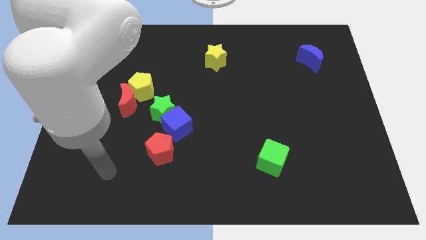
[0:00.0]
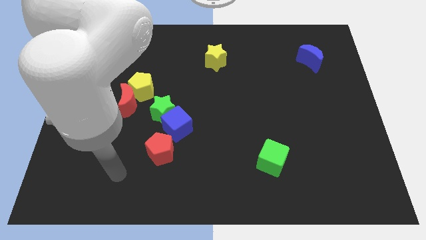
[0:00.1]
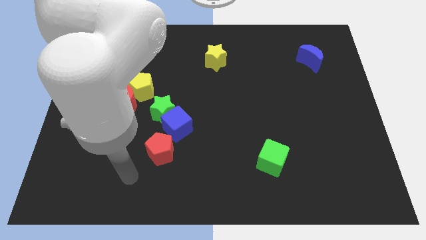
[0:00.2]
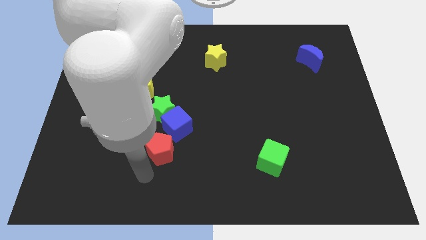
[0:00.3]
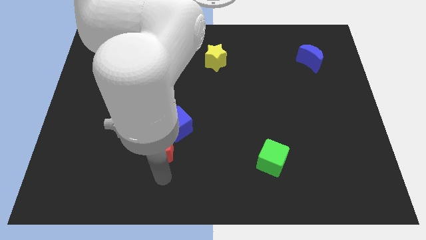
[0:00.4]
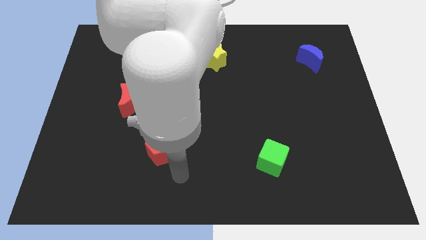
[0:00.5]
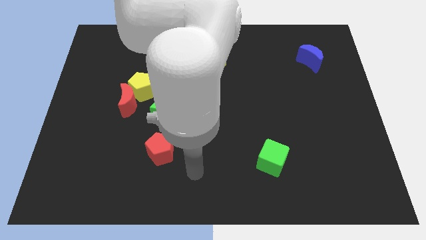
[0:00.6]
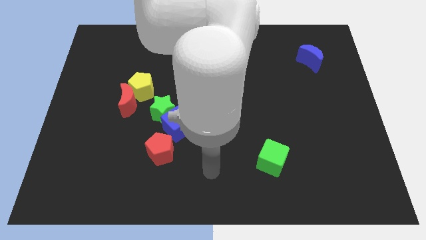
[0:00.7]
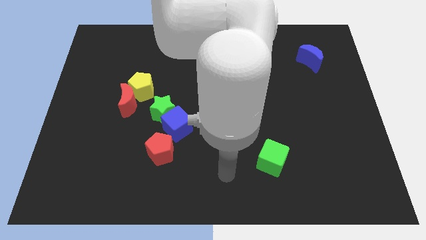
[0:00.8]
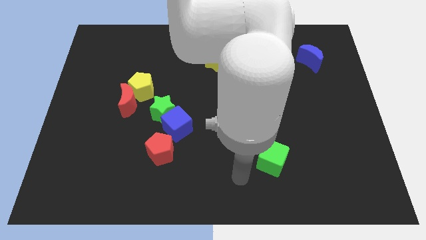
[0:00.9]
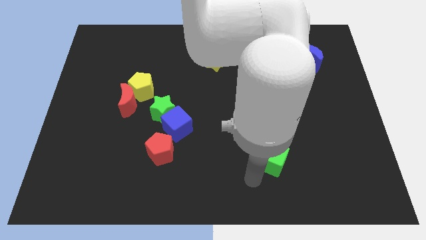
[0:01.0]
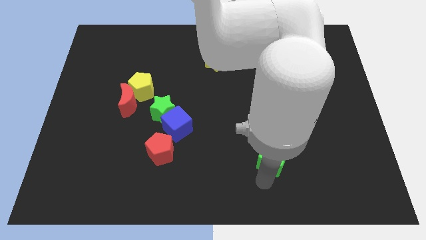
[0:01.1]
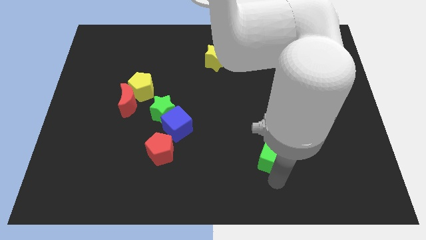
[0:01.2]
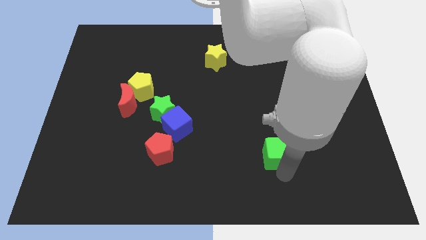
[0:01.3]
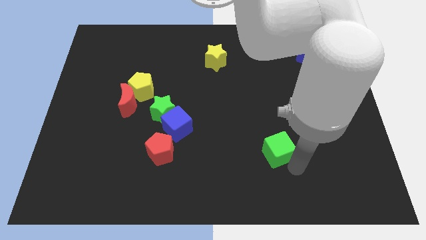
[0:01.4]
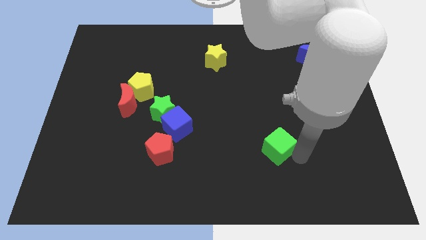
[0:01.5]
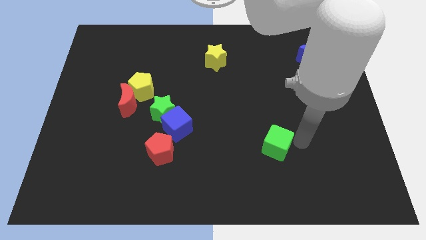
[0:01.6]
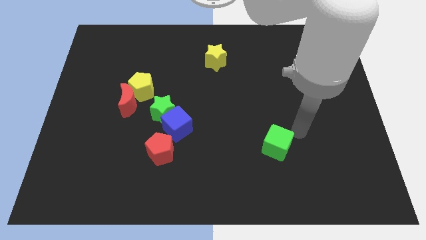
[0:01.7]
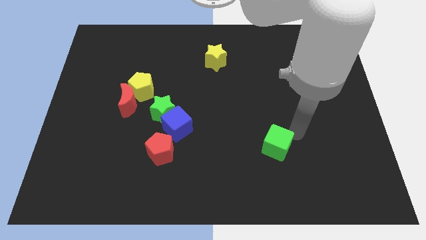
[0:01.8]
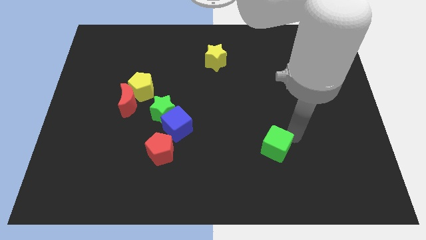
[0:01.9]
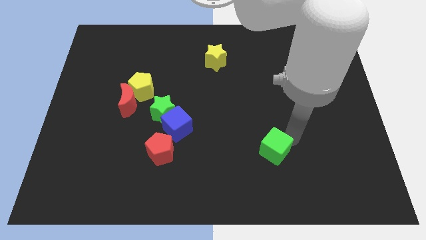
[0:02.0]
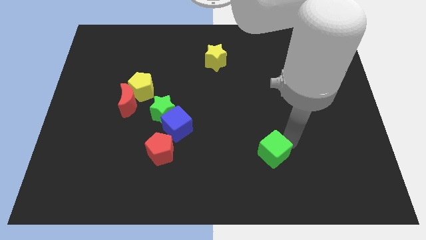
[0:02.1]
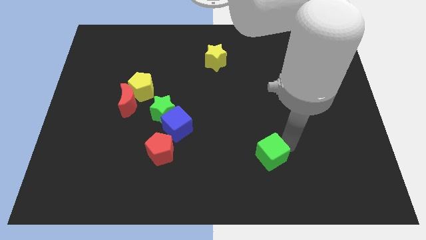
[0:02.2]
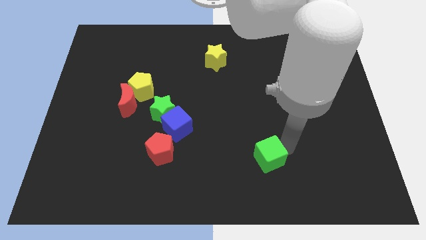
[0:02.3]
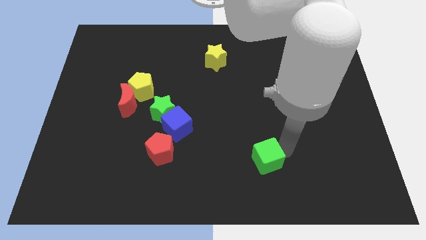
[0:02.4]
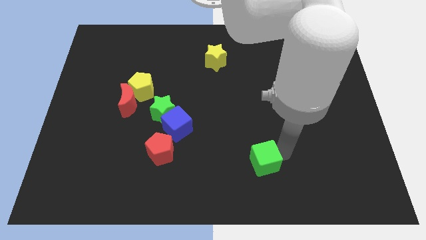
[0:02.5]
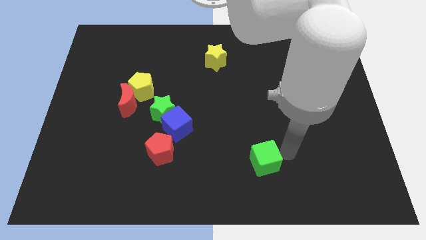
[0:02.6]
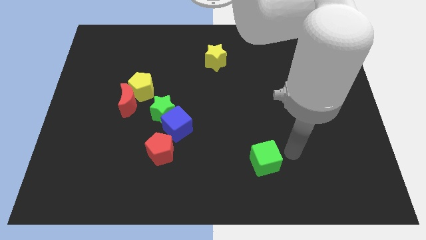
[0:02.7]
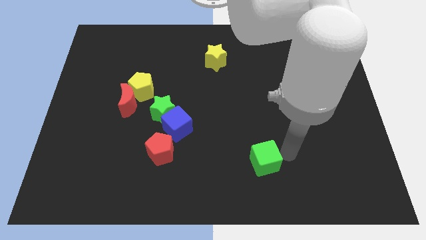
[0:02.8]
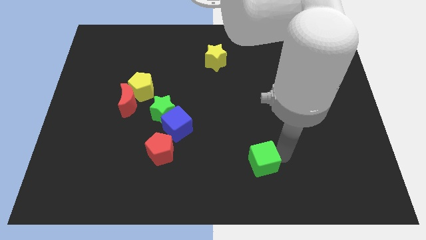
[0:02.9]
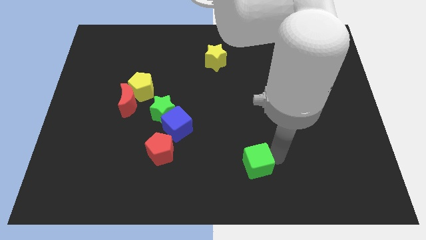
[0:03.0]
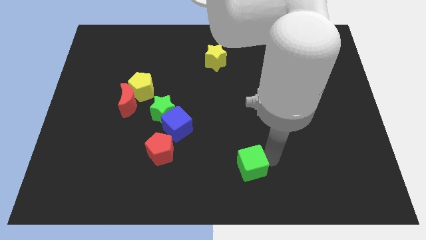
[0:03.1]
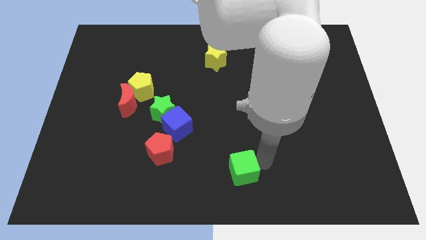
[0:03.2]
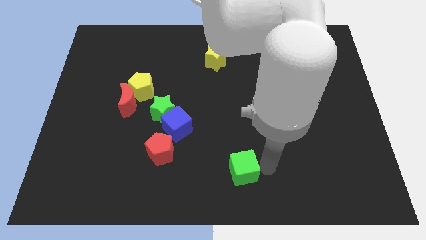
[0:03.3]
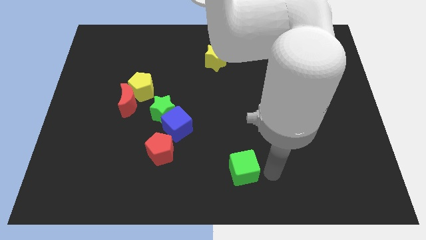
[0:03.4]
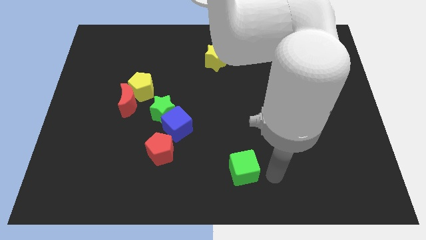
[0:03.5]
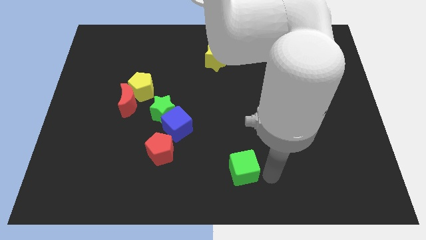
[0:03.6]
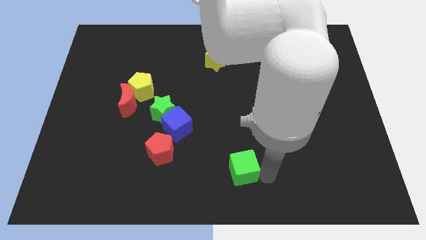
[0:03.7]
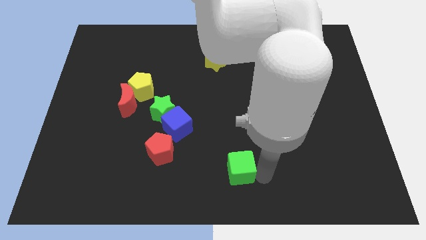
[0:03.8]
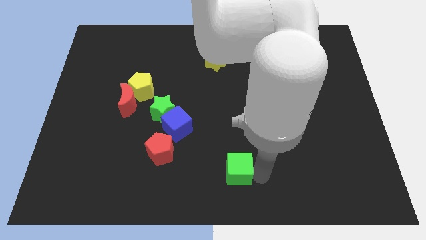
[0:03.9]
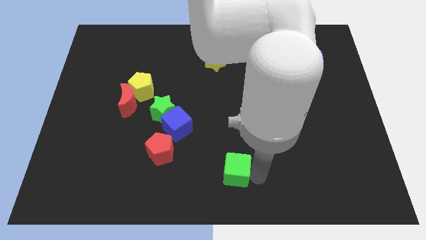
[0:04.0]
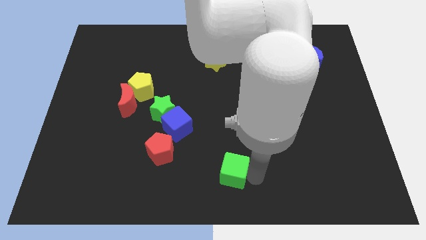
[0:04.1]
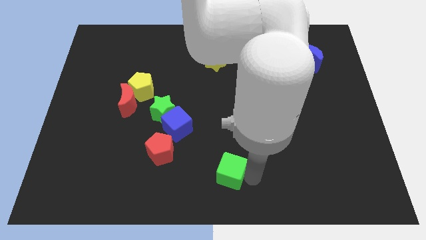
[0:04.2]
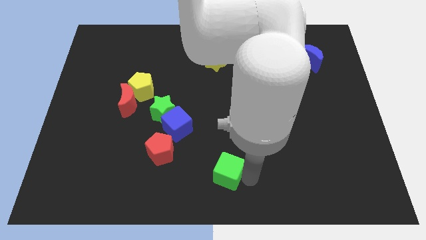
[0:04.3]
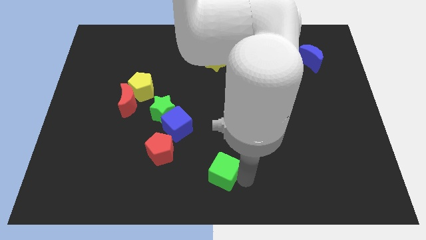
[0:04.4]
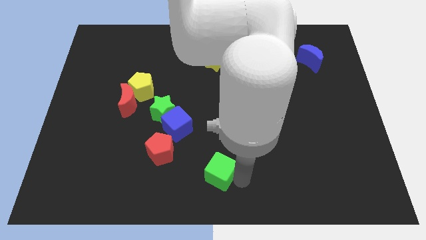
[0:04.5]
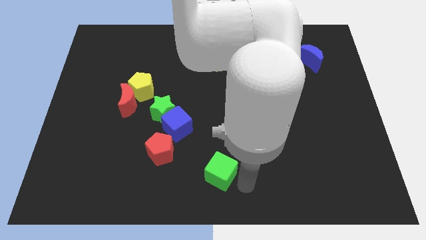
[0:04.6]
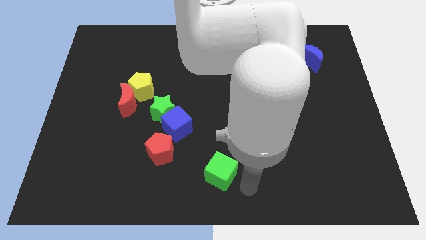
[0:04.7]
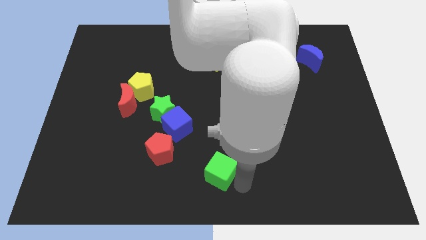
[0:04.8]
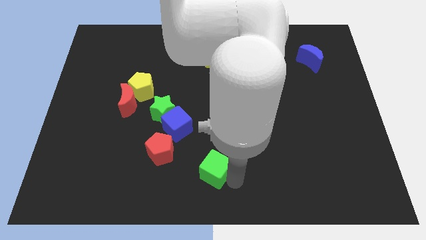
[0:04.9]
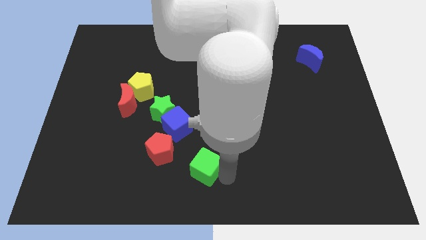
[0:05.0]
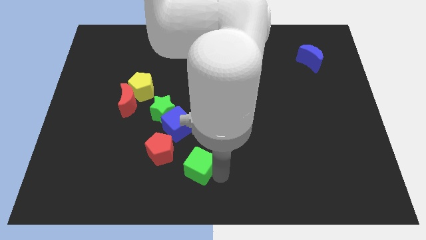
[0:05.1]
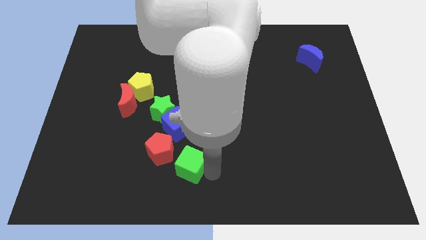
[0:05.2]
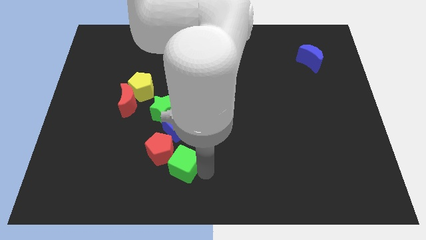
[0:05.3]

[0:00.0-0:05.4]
put the green cube close to the red pentagon

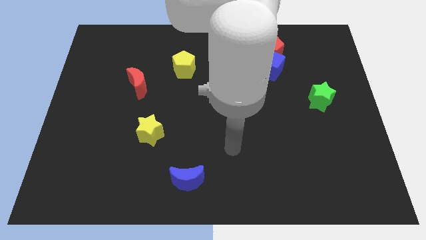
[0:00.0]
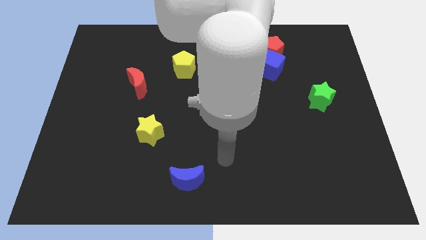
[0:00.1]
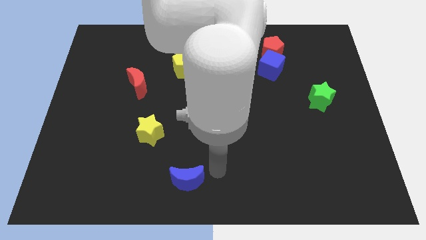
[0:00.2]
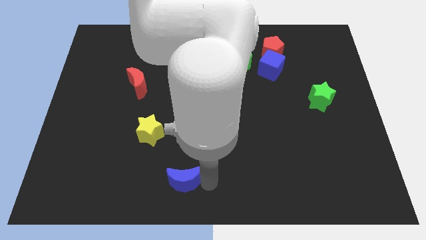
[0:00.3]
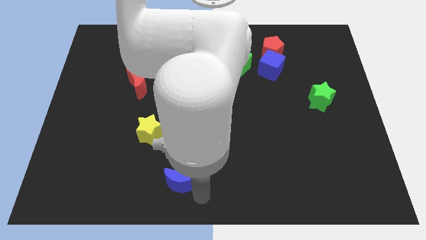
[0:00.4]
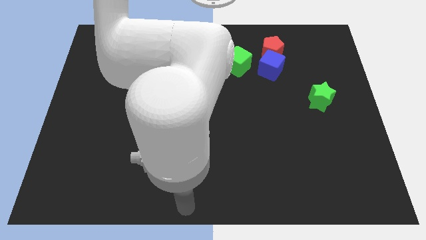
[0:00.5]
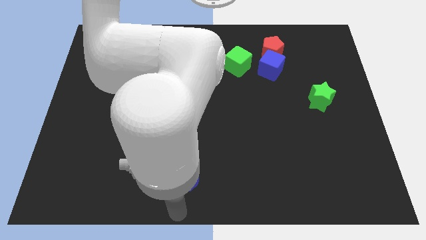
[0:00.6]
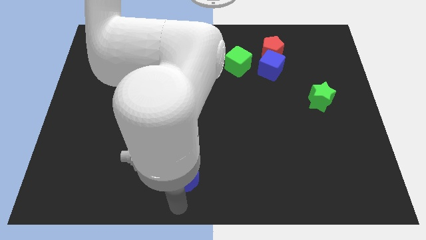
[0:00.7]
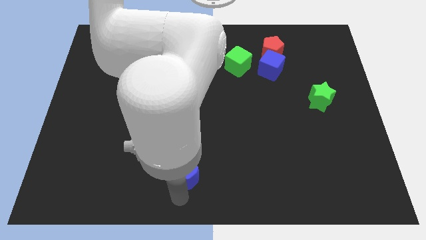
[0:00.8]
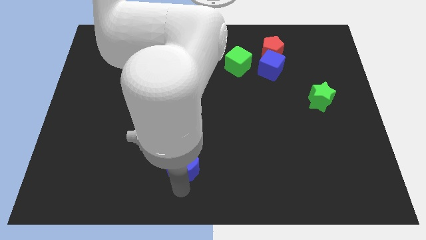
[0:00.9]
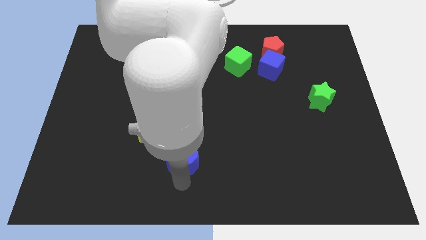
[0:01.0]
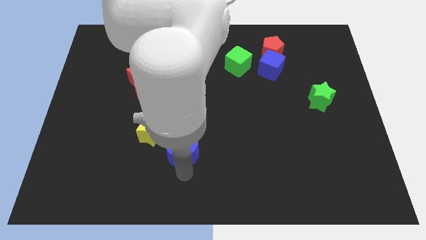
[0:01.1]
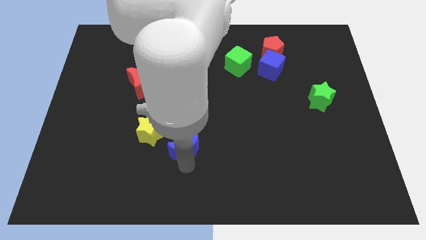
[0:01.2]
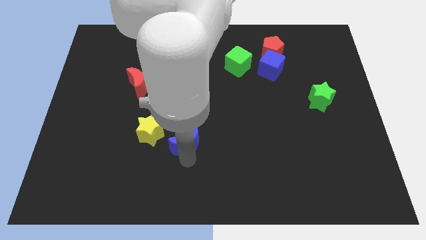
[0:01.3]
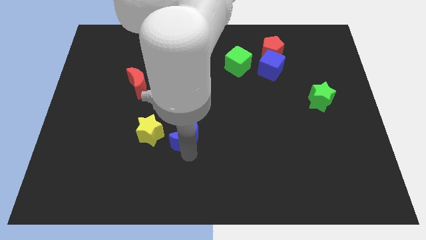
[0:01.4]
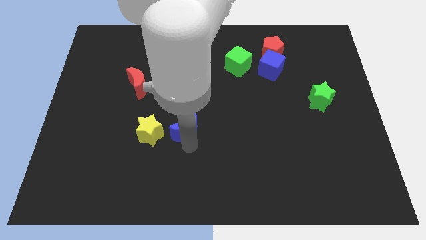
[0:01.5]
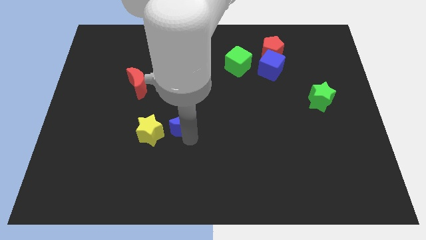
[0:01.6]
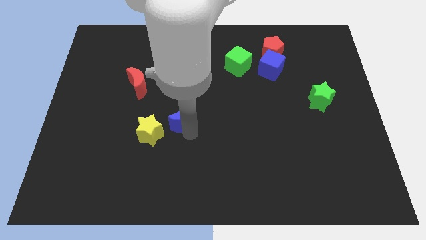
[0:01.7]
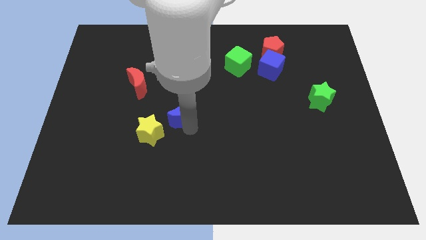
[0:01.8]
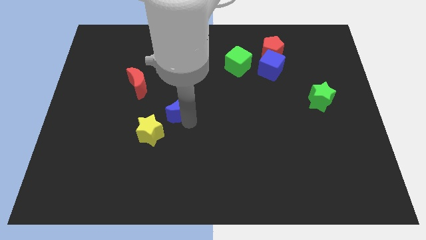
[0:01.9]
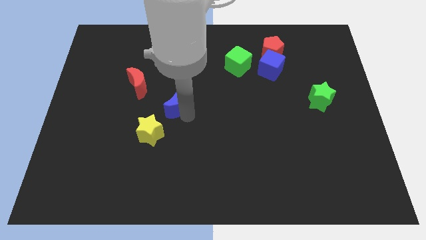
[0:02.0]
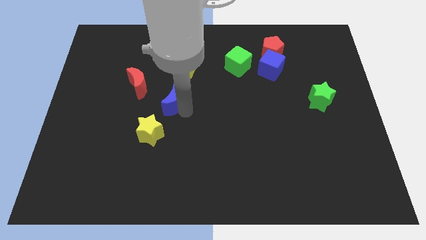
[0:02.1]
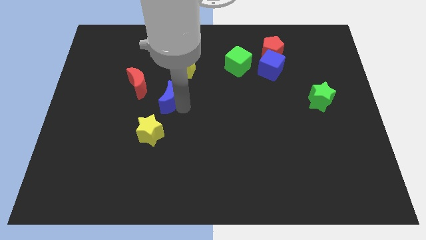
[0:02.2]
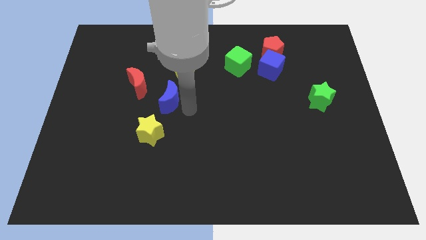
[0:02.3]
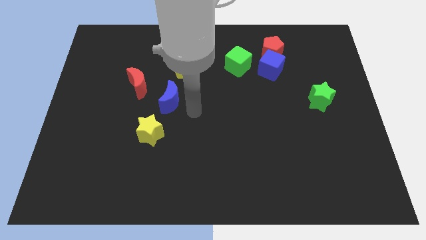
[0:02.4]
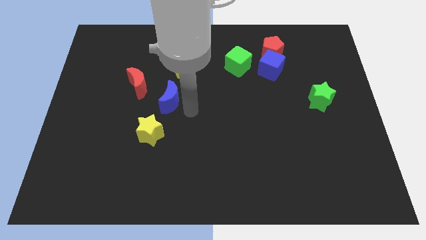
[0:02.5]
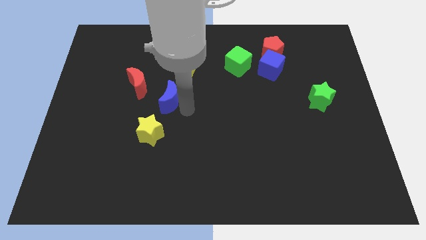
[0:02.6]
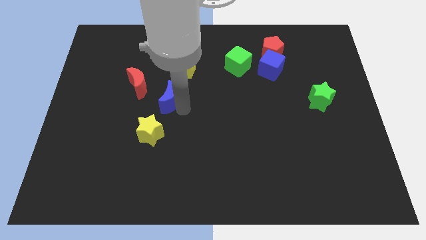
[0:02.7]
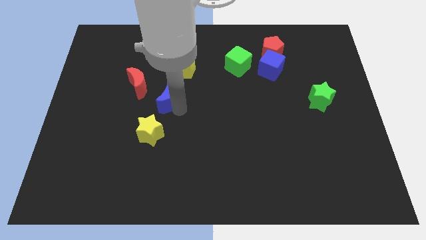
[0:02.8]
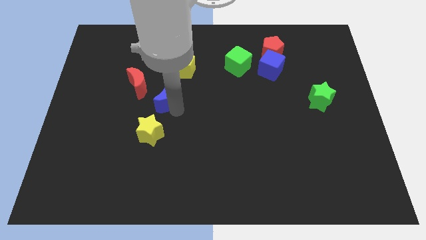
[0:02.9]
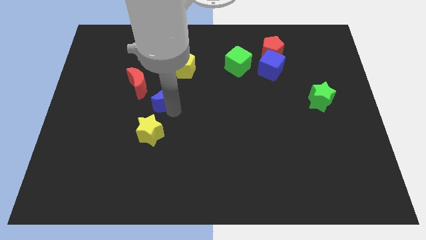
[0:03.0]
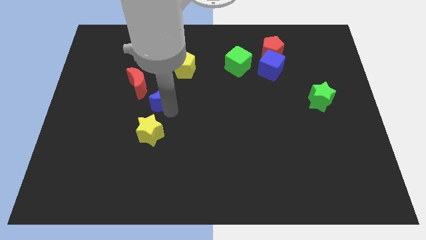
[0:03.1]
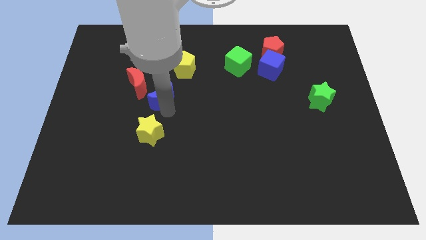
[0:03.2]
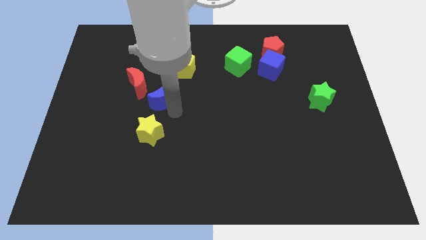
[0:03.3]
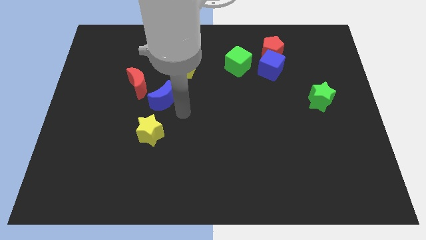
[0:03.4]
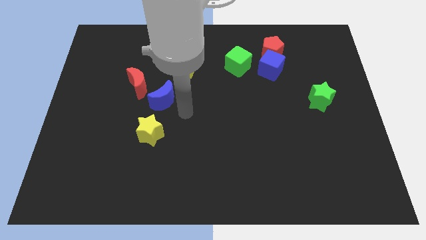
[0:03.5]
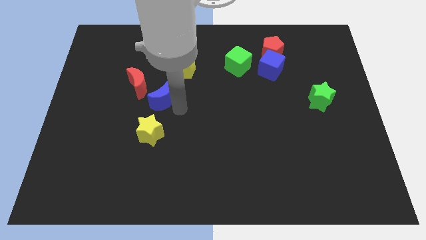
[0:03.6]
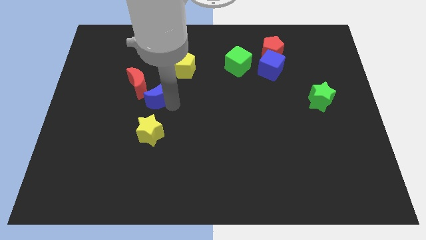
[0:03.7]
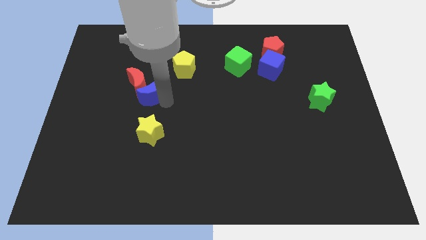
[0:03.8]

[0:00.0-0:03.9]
put the blue moon towards the red moon
